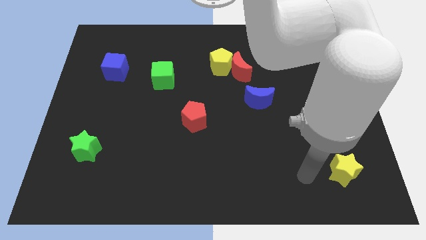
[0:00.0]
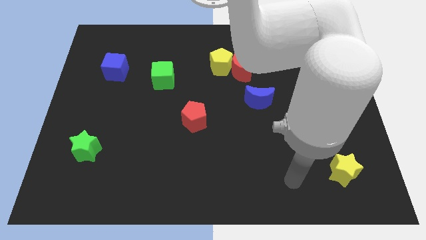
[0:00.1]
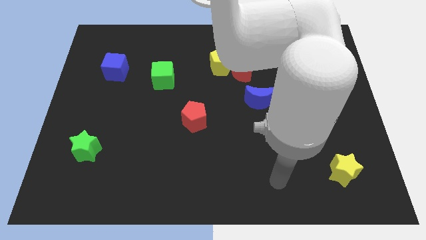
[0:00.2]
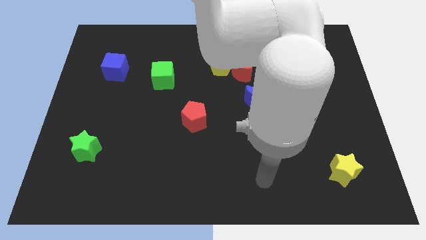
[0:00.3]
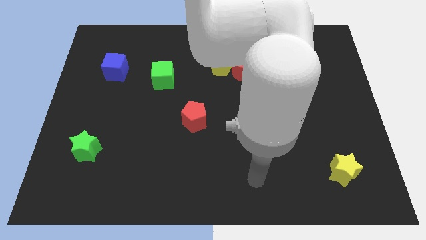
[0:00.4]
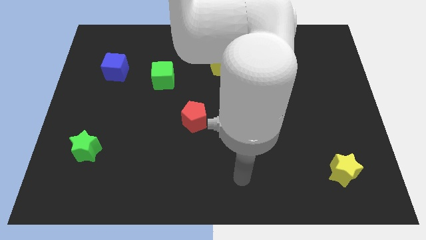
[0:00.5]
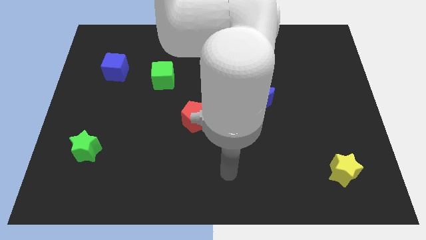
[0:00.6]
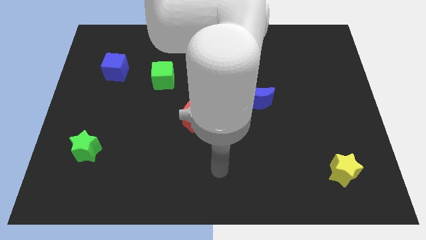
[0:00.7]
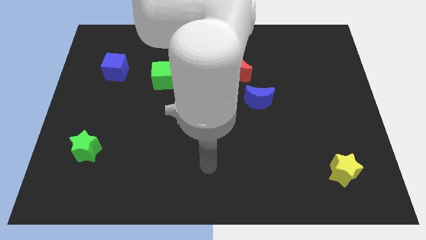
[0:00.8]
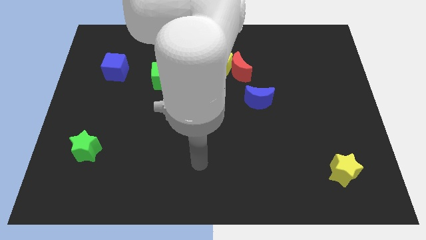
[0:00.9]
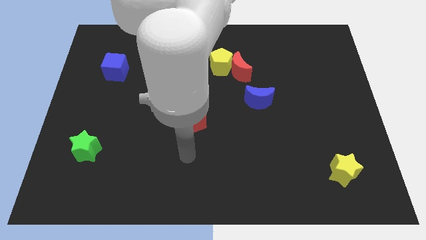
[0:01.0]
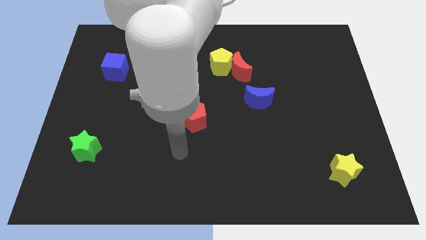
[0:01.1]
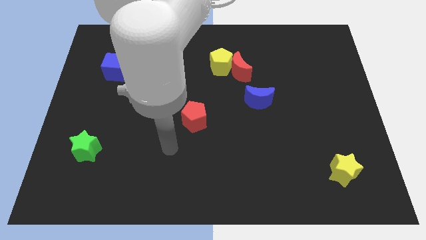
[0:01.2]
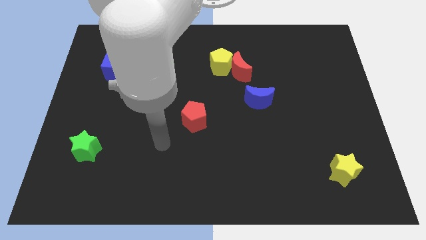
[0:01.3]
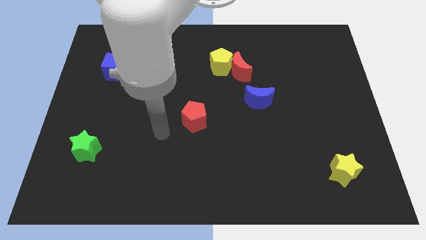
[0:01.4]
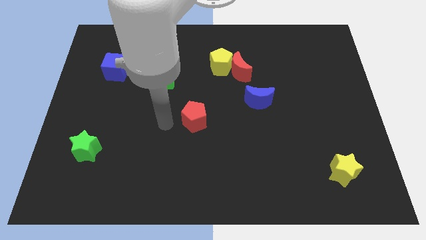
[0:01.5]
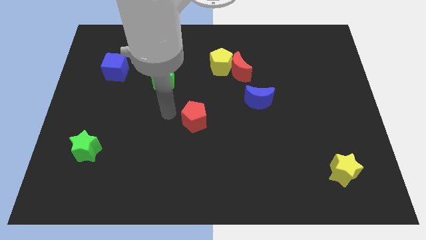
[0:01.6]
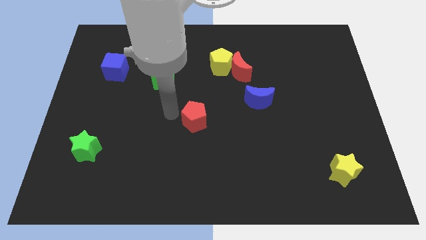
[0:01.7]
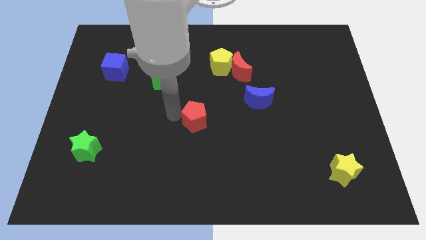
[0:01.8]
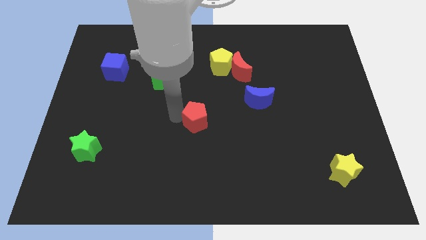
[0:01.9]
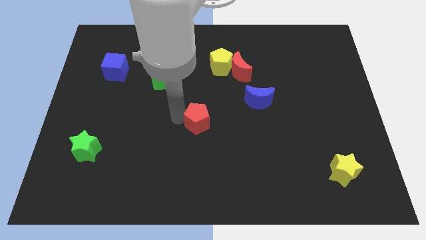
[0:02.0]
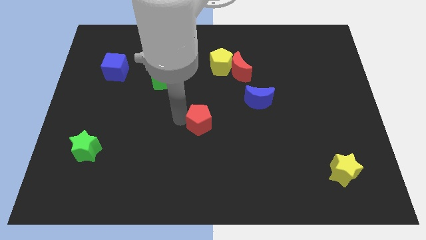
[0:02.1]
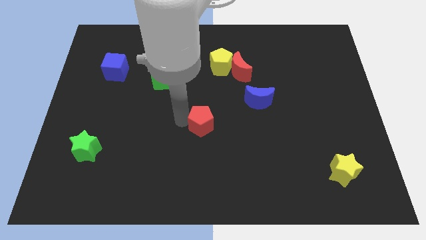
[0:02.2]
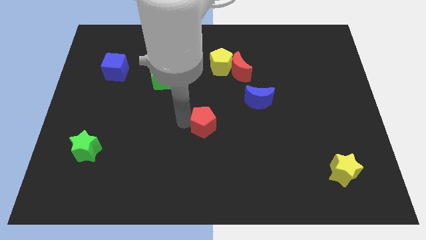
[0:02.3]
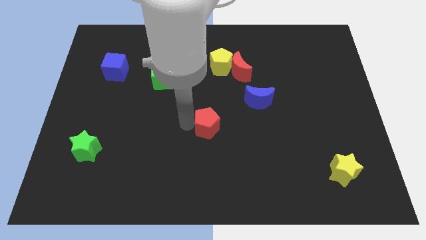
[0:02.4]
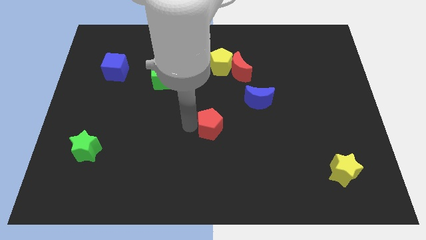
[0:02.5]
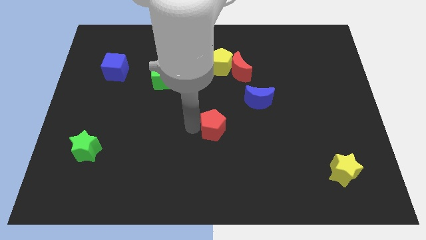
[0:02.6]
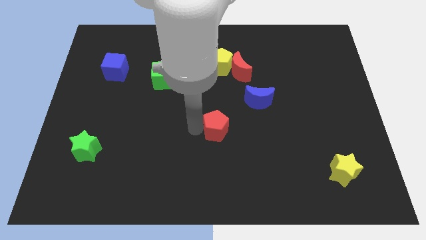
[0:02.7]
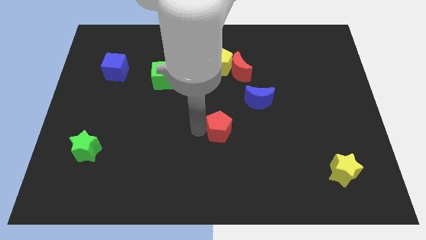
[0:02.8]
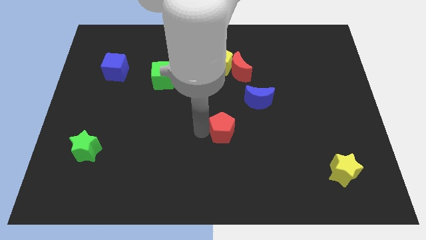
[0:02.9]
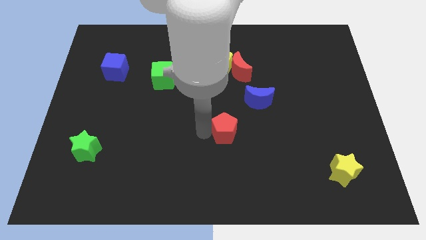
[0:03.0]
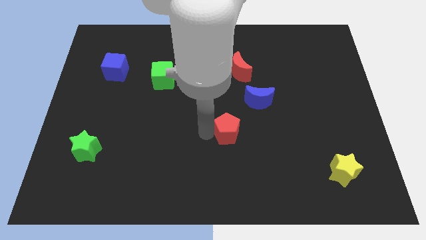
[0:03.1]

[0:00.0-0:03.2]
slightly push the red pentagon to the right

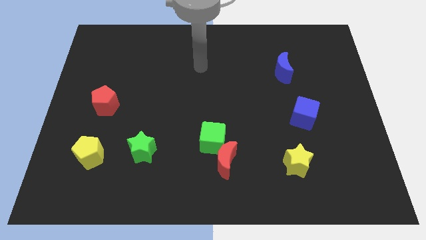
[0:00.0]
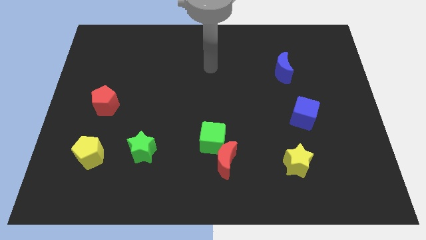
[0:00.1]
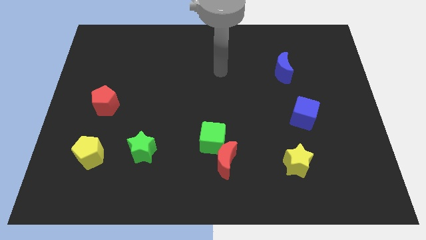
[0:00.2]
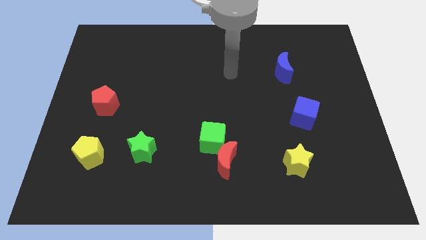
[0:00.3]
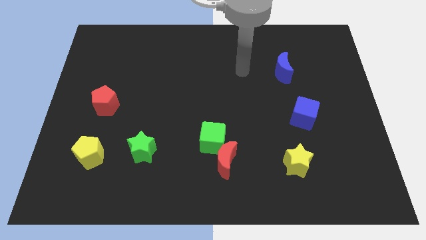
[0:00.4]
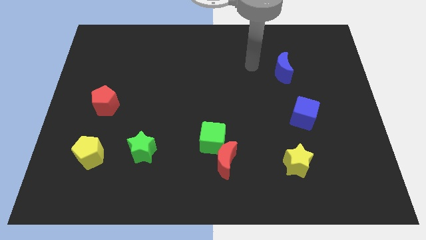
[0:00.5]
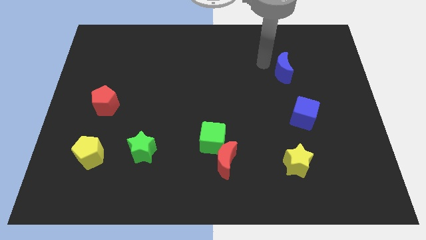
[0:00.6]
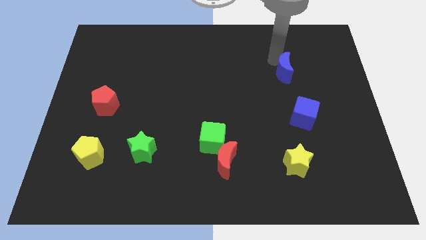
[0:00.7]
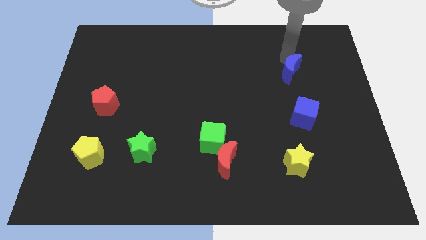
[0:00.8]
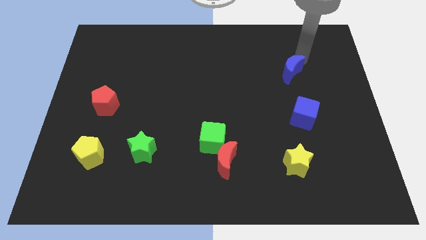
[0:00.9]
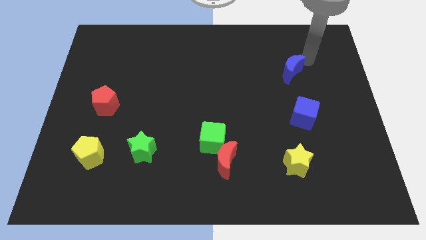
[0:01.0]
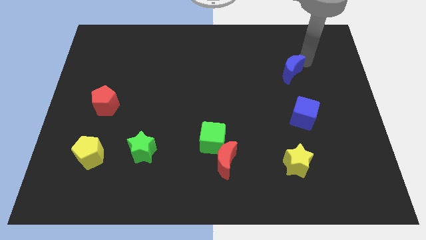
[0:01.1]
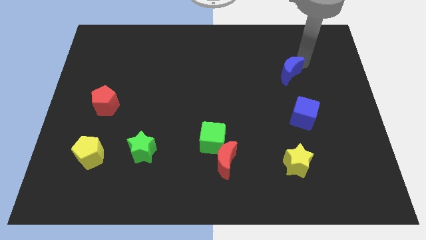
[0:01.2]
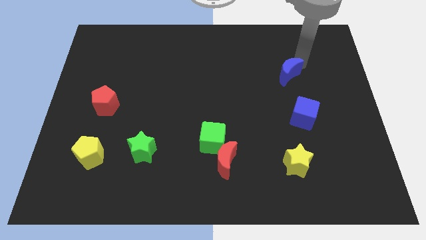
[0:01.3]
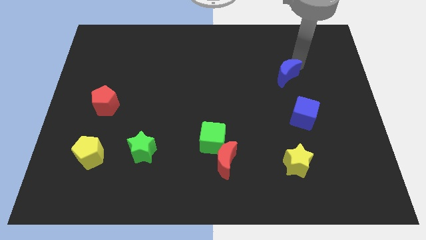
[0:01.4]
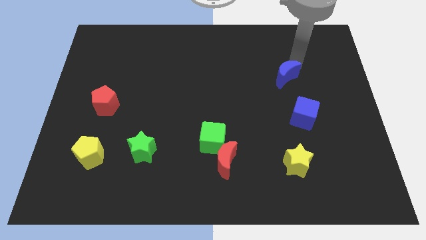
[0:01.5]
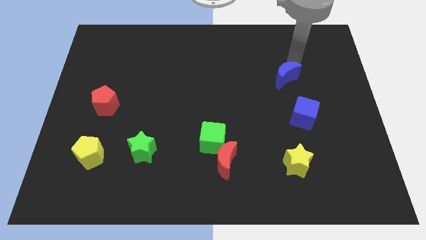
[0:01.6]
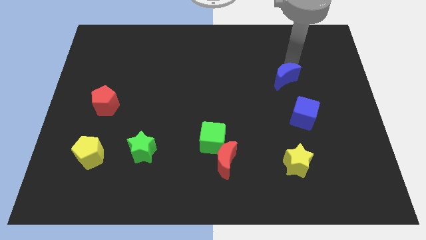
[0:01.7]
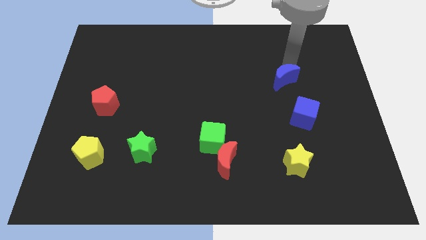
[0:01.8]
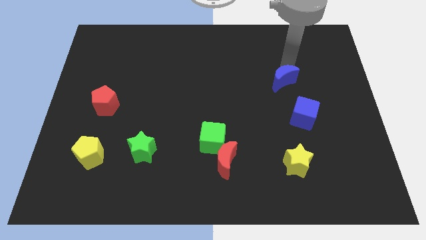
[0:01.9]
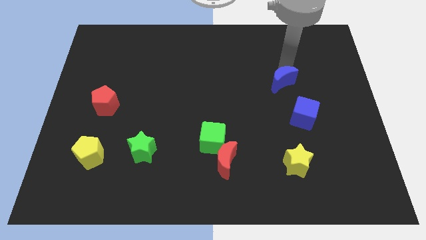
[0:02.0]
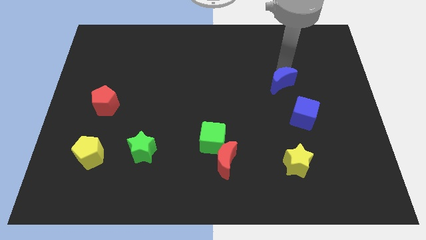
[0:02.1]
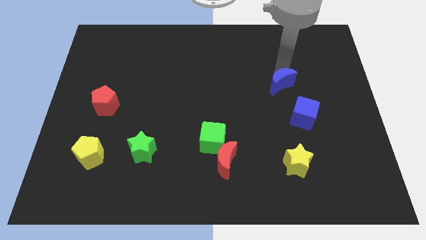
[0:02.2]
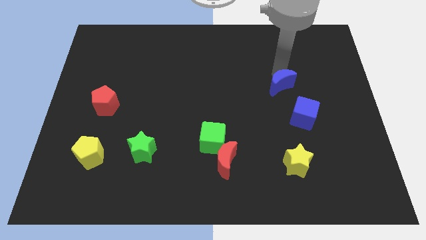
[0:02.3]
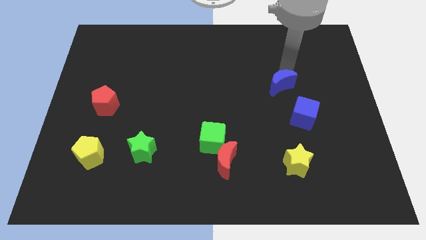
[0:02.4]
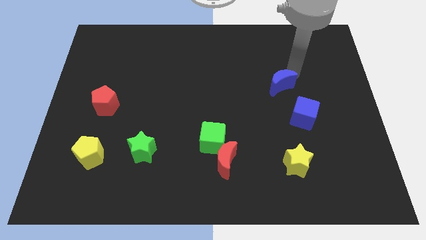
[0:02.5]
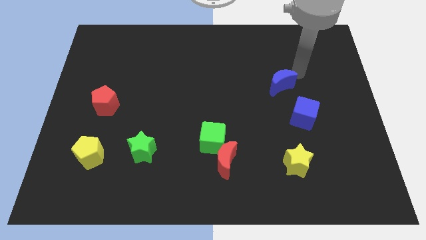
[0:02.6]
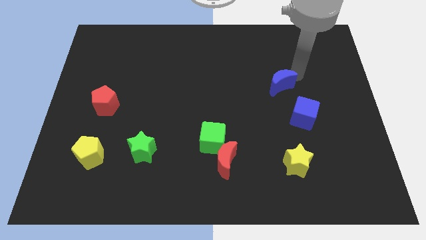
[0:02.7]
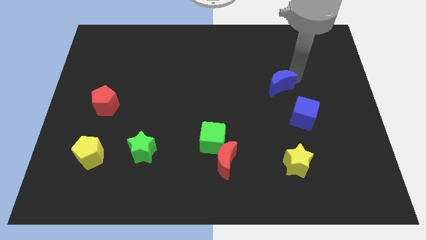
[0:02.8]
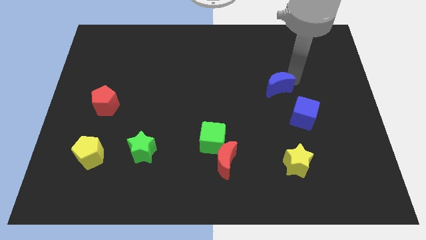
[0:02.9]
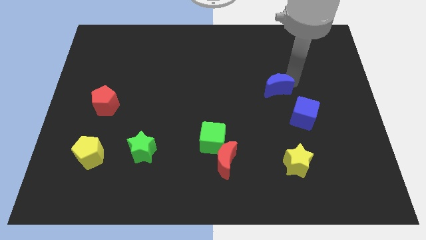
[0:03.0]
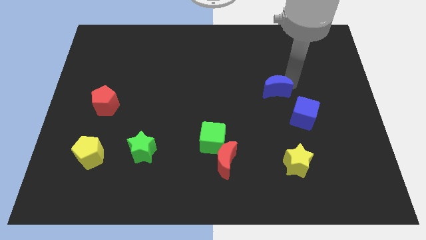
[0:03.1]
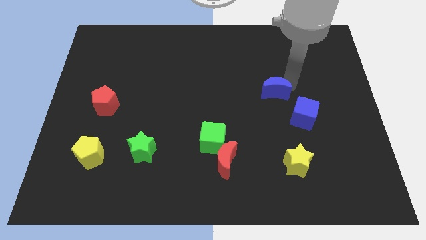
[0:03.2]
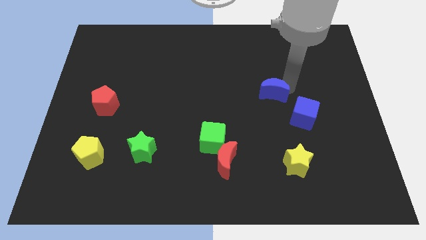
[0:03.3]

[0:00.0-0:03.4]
slightly push the blue moon down and left diagonally

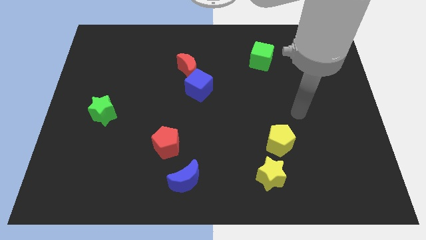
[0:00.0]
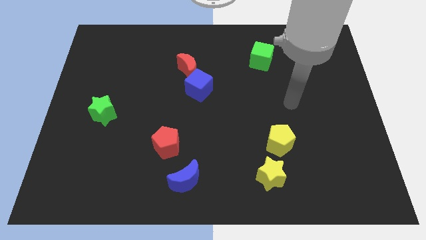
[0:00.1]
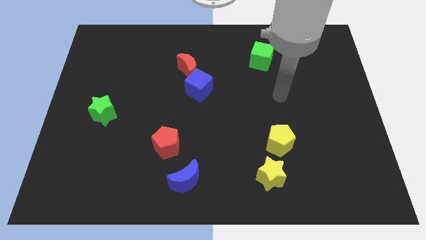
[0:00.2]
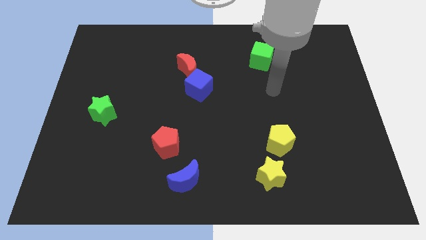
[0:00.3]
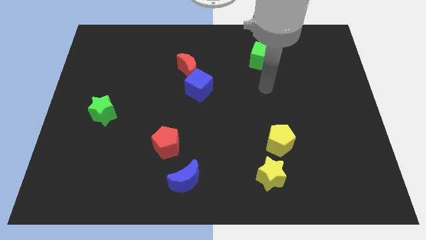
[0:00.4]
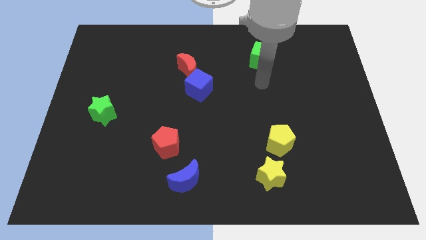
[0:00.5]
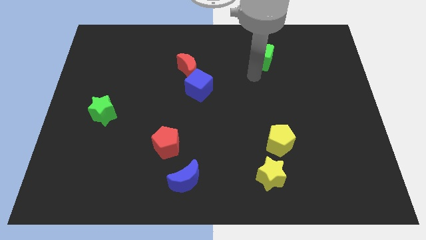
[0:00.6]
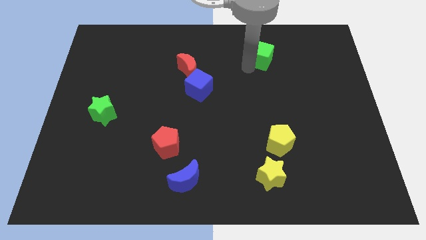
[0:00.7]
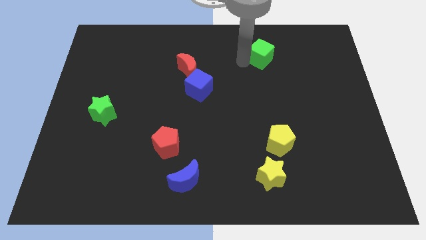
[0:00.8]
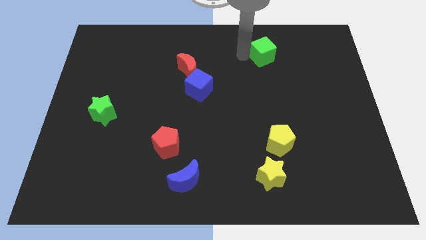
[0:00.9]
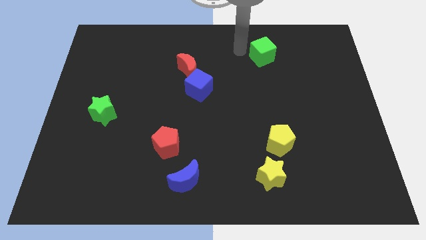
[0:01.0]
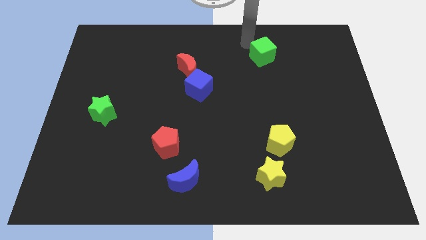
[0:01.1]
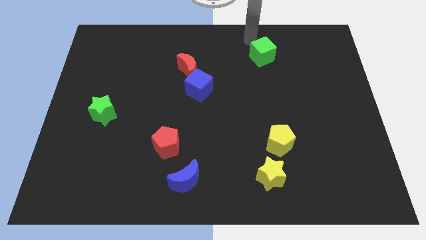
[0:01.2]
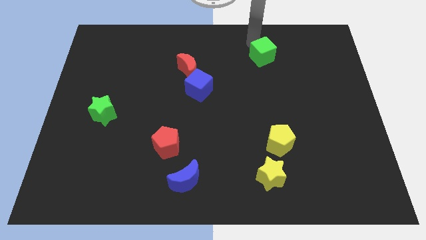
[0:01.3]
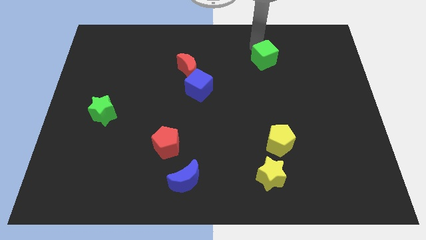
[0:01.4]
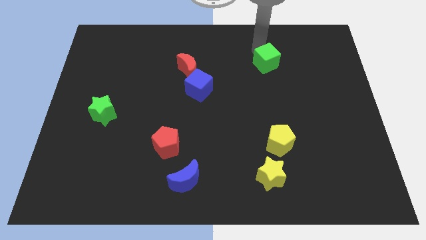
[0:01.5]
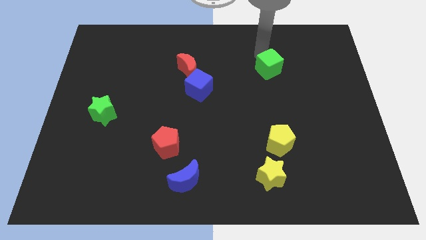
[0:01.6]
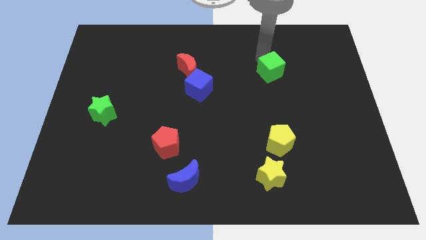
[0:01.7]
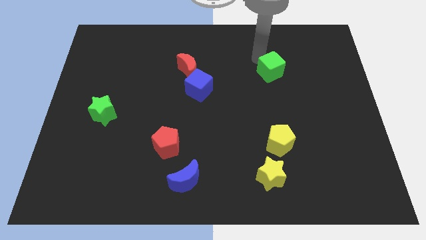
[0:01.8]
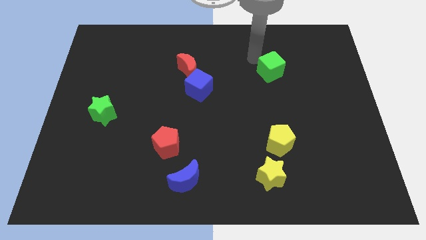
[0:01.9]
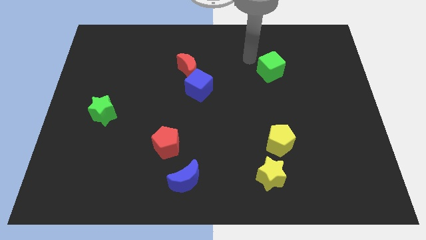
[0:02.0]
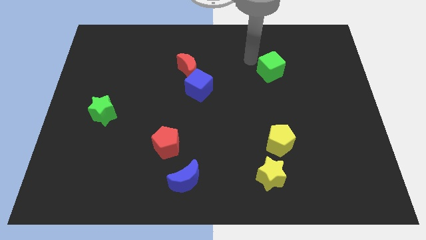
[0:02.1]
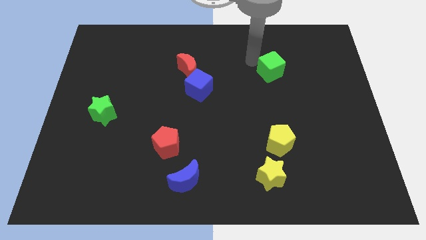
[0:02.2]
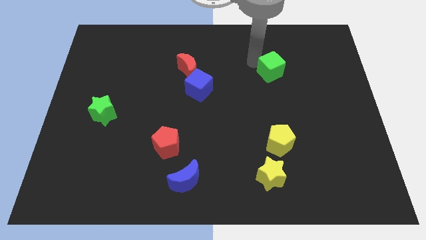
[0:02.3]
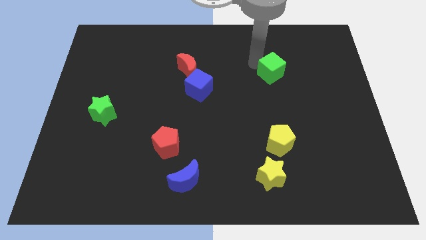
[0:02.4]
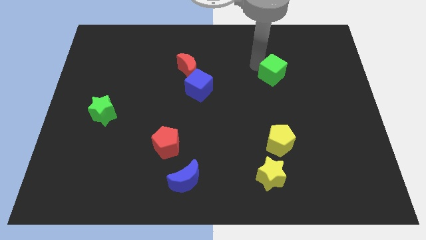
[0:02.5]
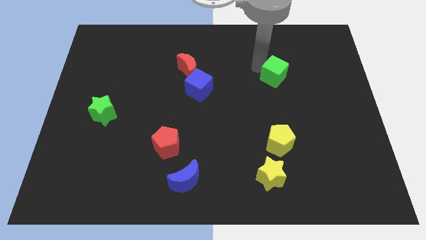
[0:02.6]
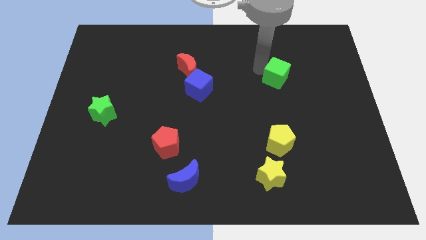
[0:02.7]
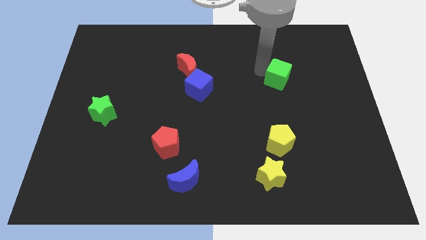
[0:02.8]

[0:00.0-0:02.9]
move the green cube diagonally downwards and to the right a little bit
